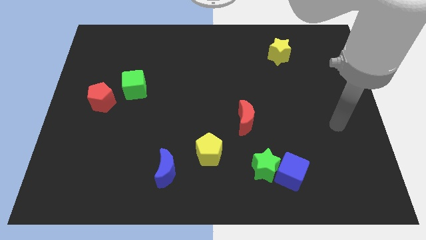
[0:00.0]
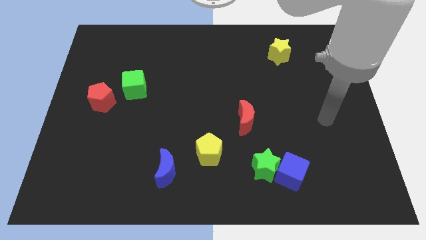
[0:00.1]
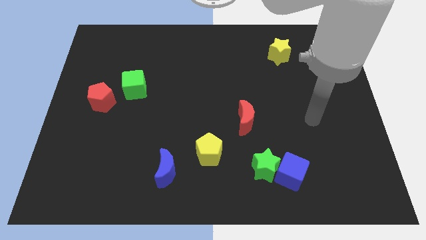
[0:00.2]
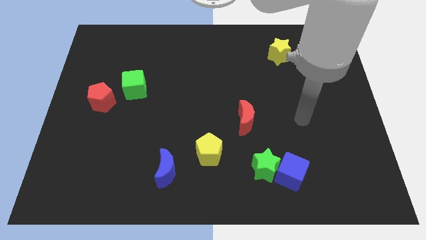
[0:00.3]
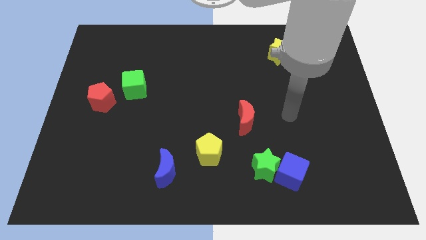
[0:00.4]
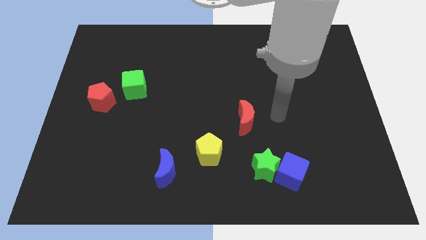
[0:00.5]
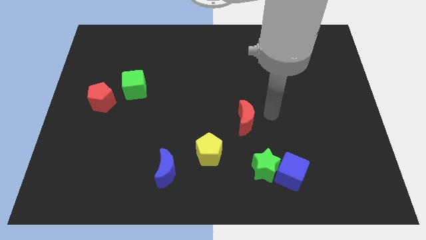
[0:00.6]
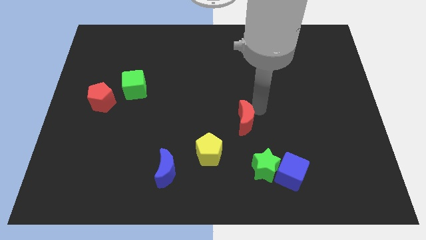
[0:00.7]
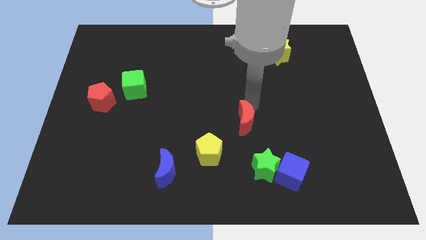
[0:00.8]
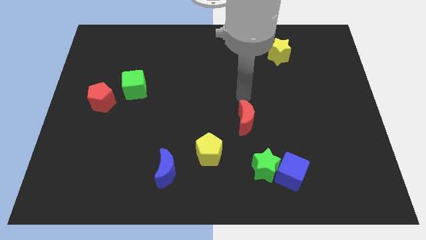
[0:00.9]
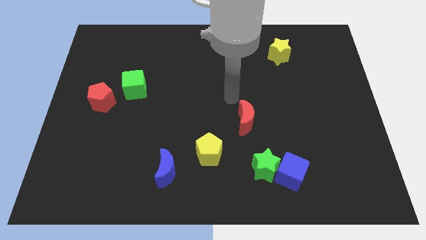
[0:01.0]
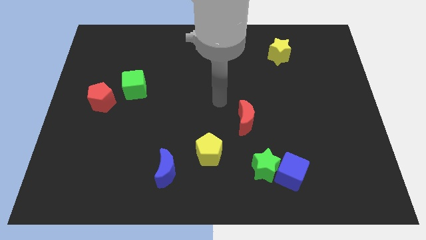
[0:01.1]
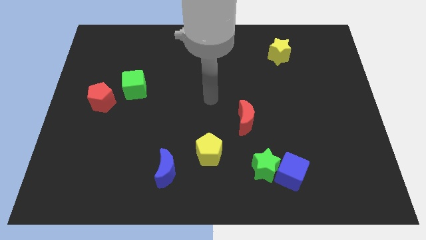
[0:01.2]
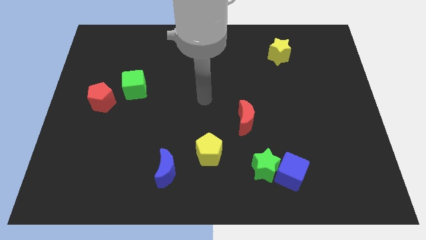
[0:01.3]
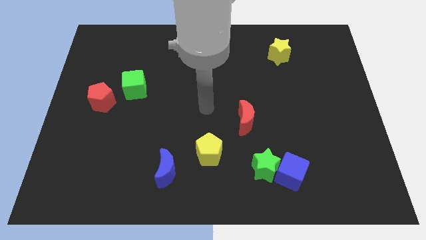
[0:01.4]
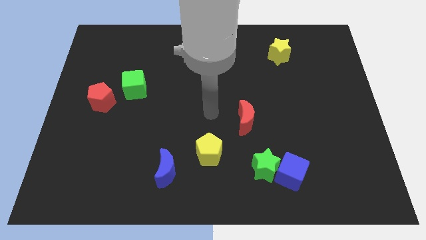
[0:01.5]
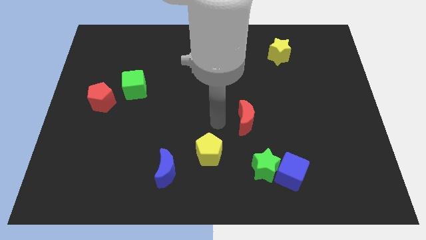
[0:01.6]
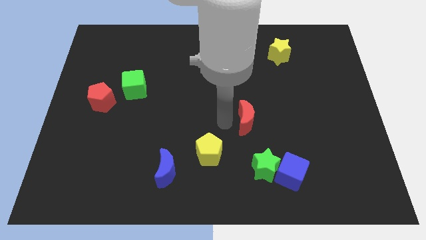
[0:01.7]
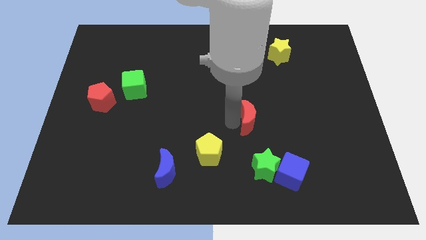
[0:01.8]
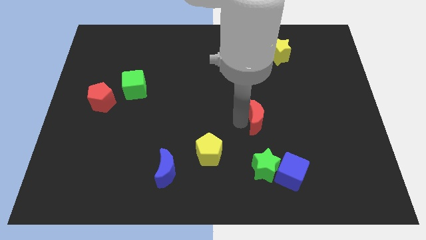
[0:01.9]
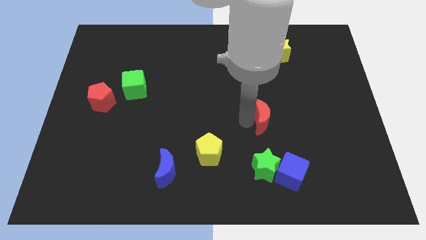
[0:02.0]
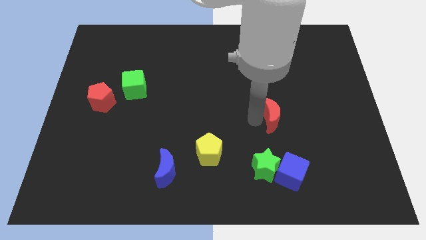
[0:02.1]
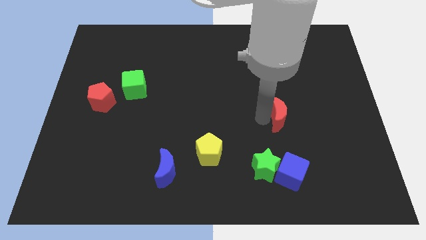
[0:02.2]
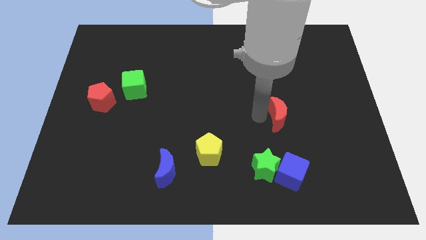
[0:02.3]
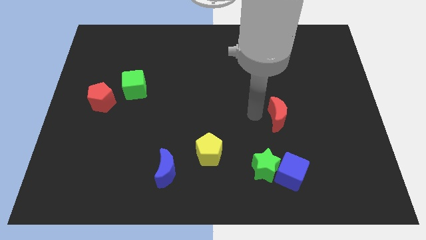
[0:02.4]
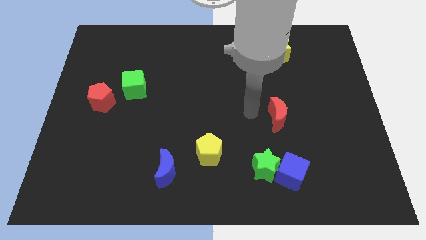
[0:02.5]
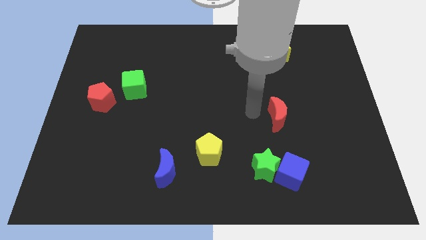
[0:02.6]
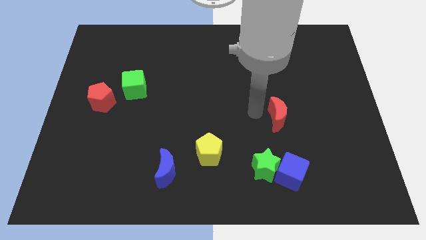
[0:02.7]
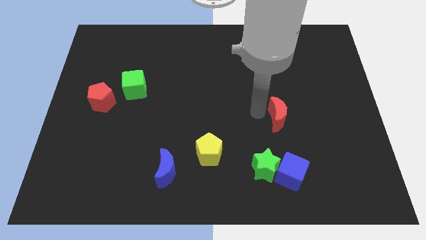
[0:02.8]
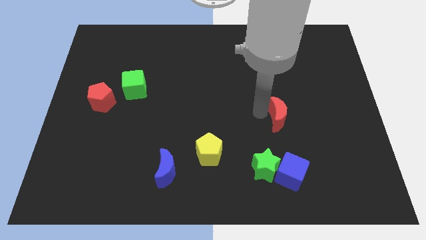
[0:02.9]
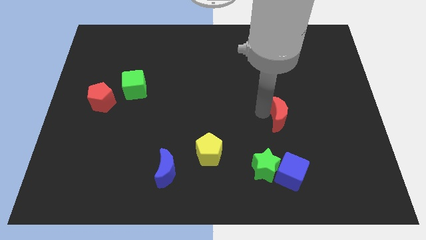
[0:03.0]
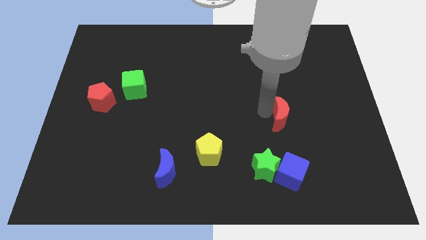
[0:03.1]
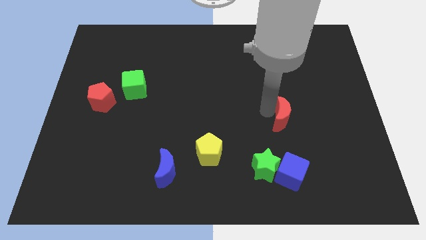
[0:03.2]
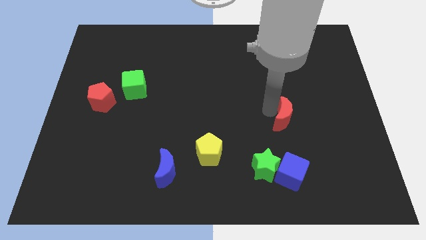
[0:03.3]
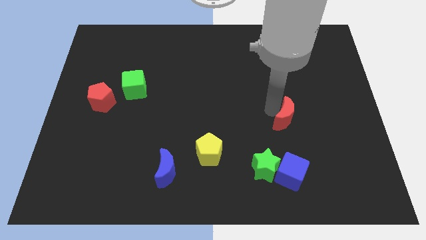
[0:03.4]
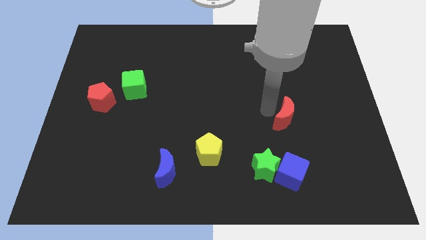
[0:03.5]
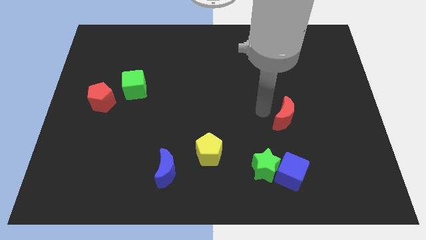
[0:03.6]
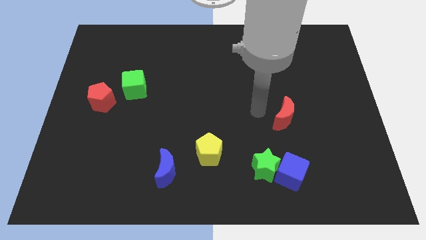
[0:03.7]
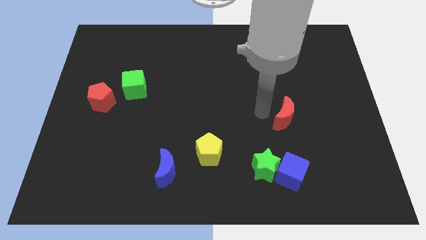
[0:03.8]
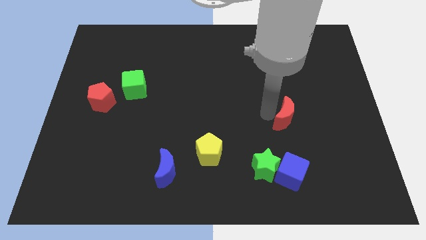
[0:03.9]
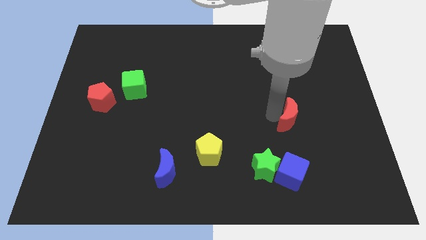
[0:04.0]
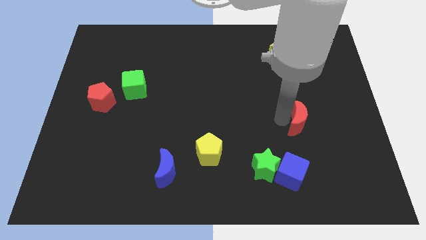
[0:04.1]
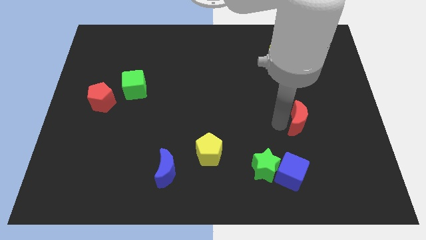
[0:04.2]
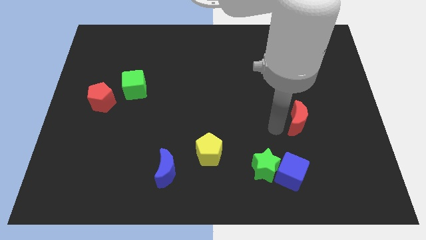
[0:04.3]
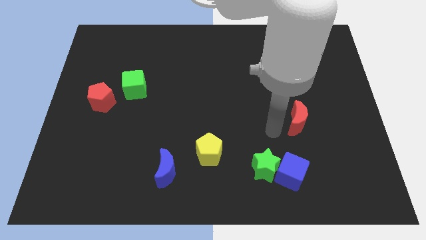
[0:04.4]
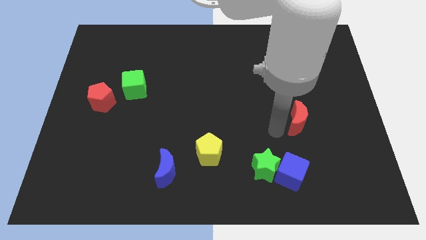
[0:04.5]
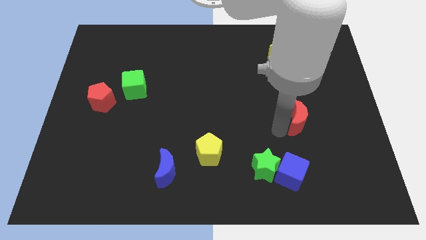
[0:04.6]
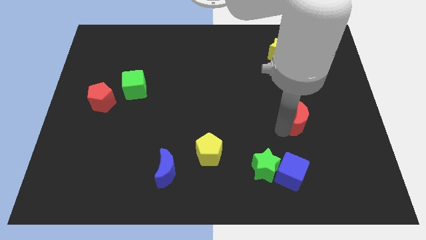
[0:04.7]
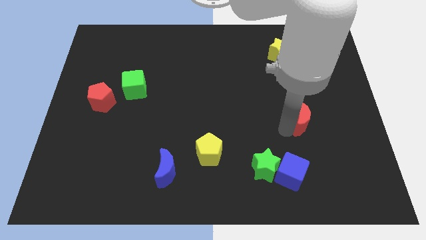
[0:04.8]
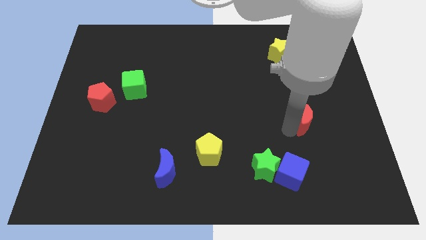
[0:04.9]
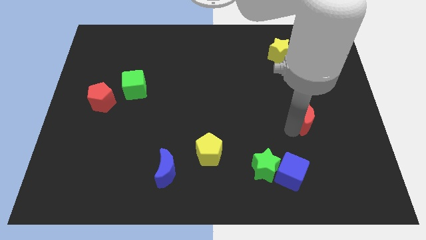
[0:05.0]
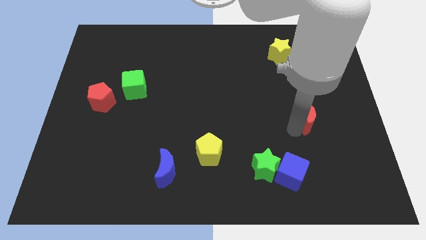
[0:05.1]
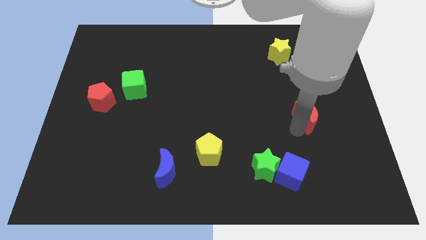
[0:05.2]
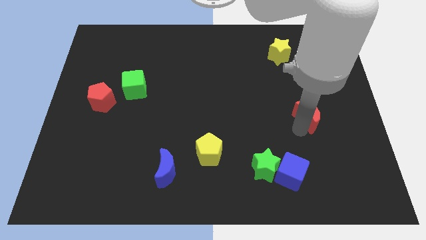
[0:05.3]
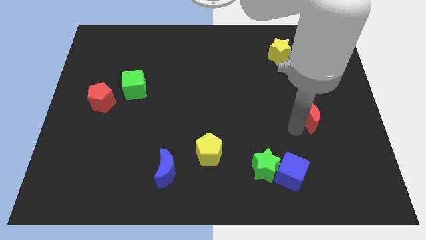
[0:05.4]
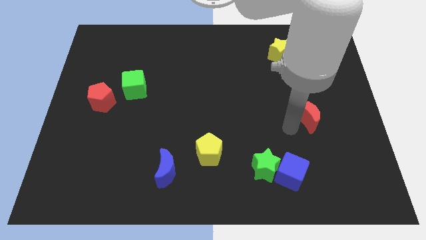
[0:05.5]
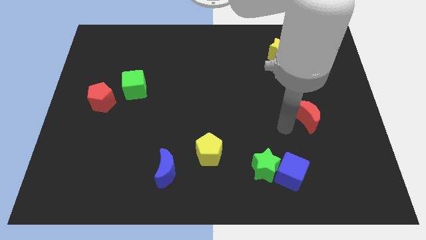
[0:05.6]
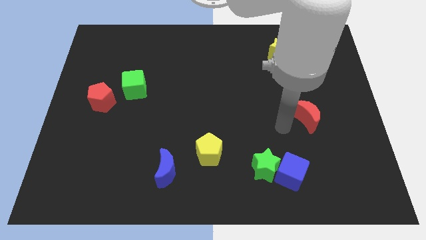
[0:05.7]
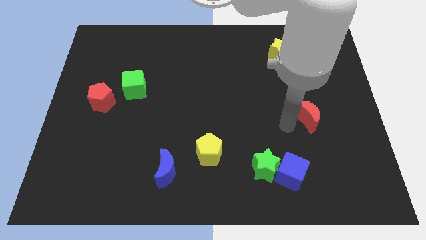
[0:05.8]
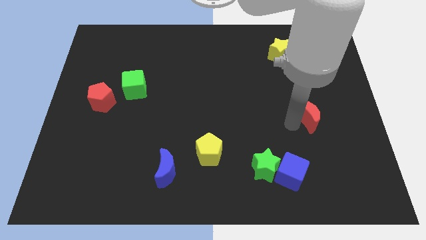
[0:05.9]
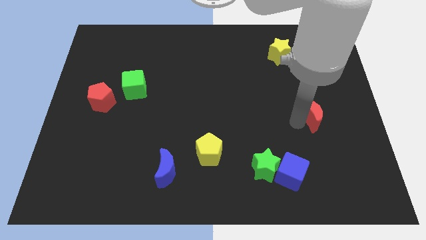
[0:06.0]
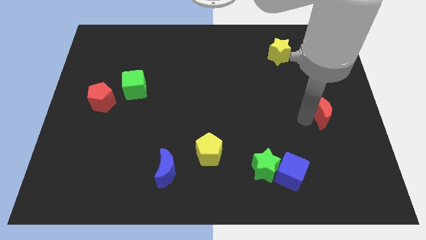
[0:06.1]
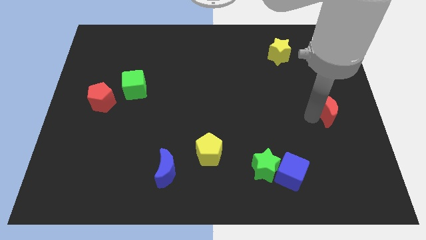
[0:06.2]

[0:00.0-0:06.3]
push the red moon to the right side of the board
